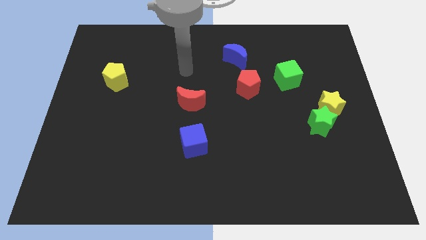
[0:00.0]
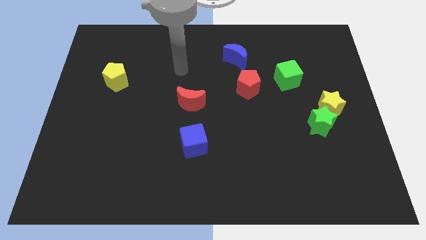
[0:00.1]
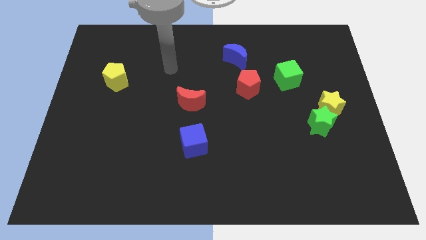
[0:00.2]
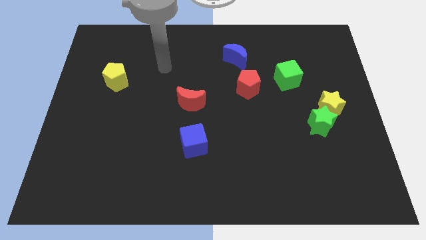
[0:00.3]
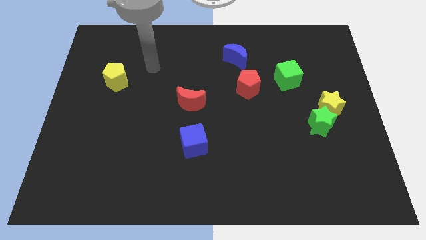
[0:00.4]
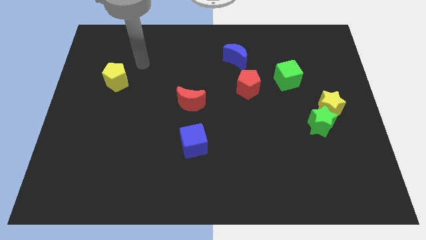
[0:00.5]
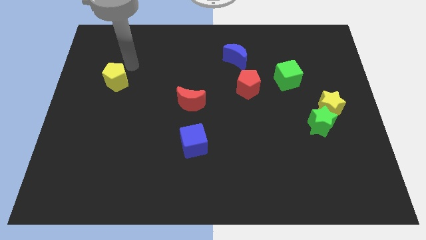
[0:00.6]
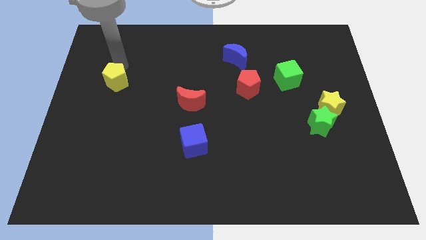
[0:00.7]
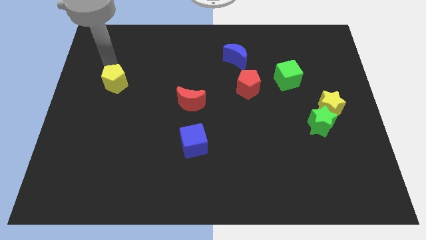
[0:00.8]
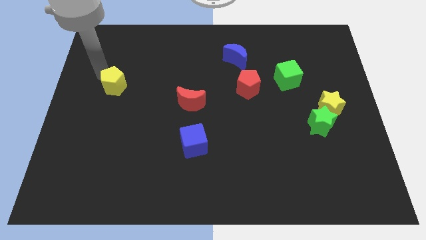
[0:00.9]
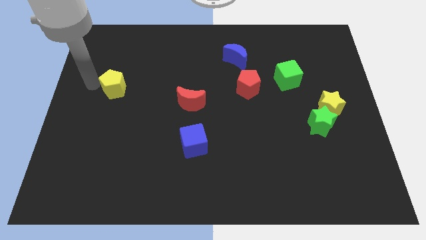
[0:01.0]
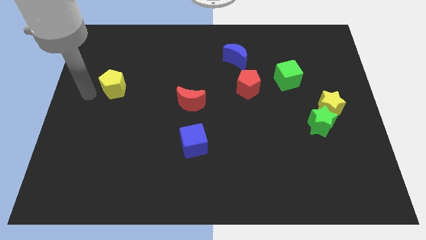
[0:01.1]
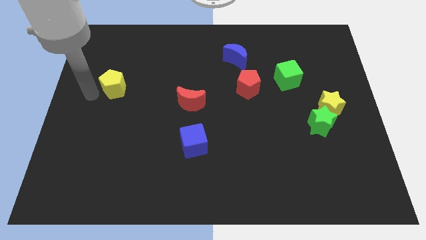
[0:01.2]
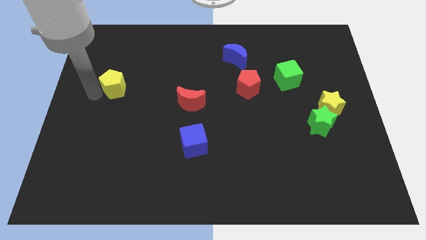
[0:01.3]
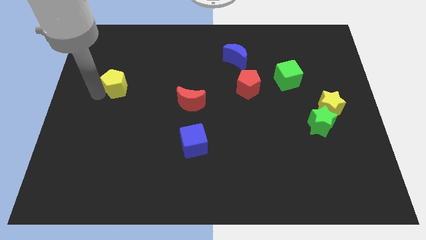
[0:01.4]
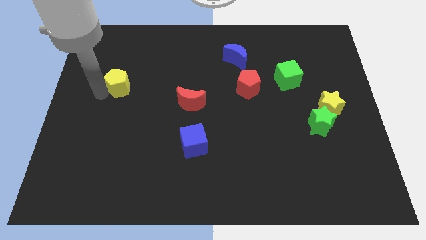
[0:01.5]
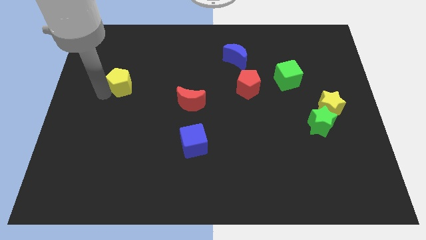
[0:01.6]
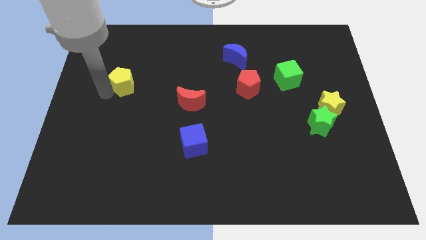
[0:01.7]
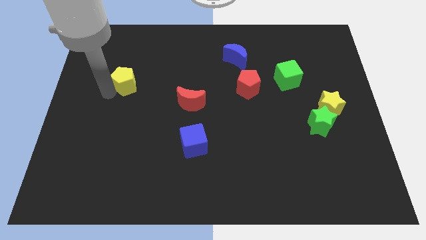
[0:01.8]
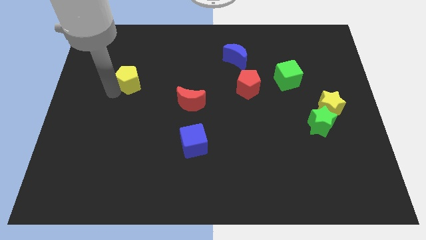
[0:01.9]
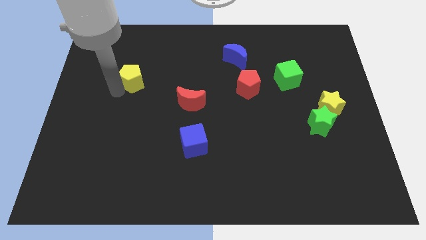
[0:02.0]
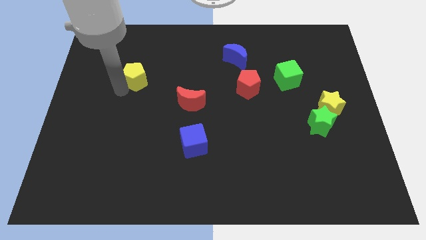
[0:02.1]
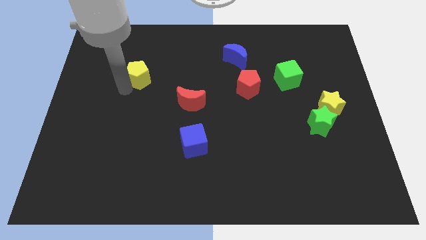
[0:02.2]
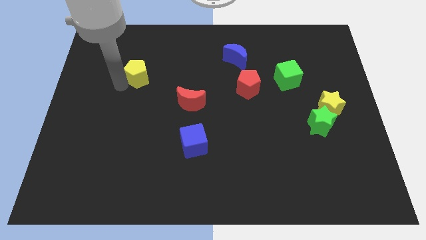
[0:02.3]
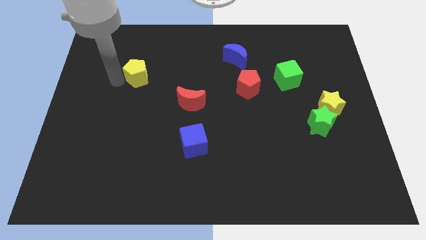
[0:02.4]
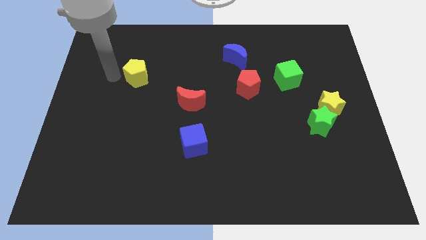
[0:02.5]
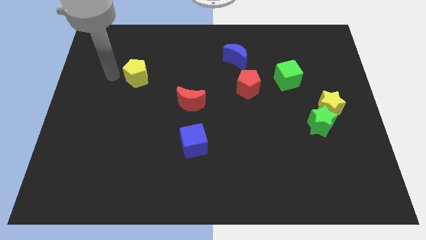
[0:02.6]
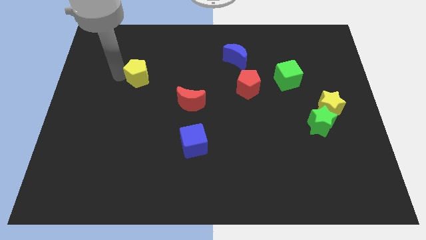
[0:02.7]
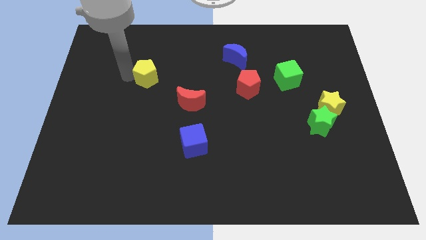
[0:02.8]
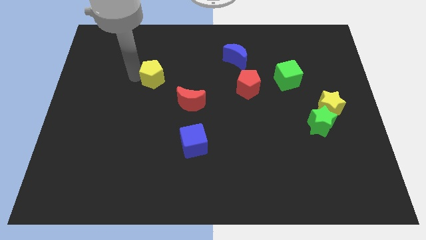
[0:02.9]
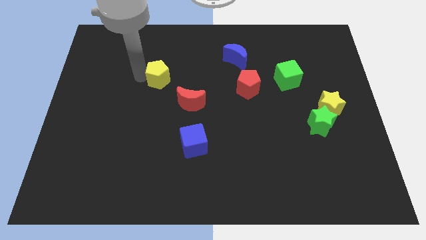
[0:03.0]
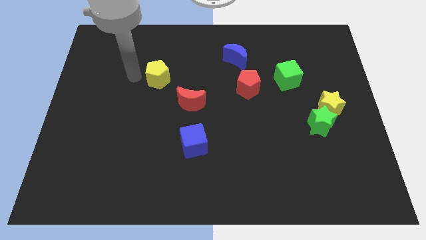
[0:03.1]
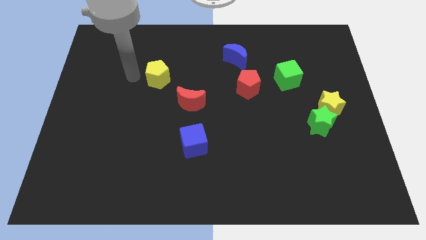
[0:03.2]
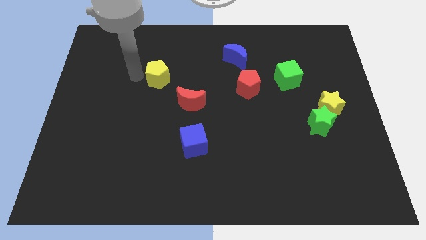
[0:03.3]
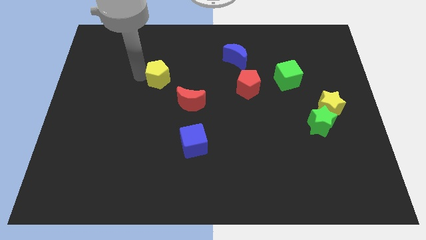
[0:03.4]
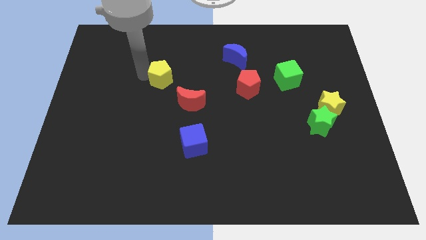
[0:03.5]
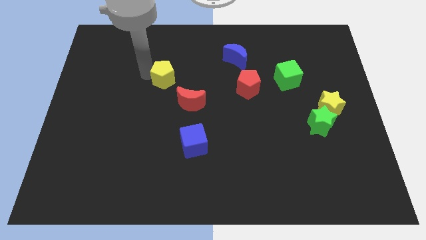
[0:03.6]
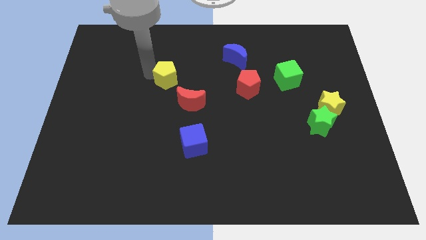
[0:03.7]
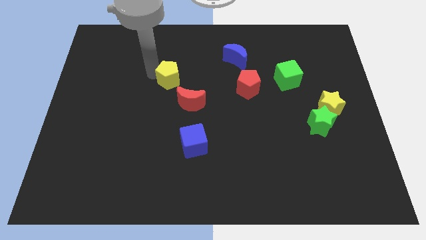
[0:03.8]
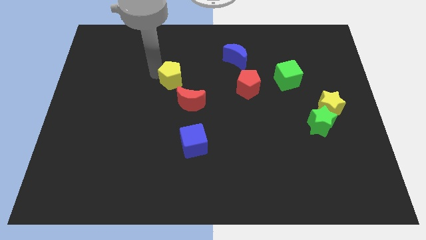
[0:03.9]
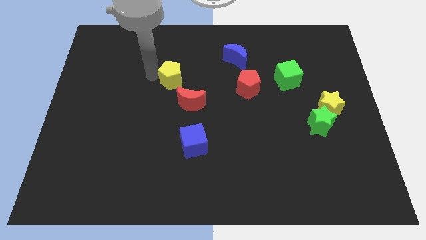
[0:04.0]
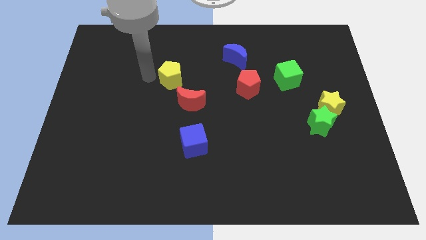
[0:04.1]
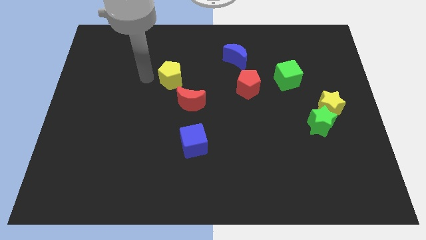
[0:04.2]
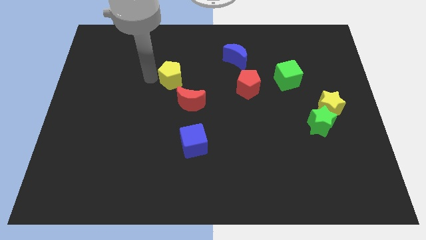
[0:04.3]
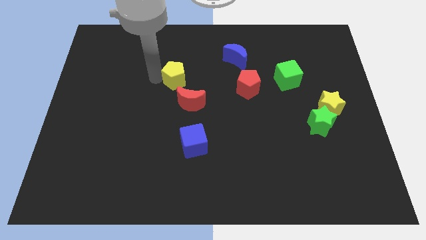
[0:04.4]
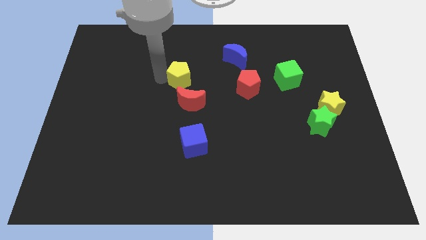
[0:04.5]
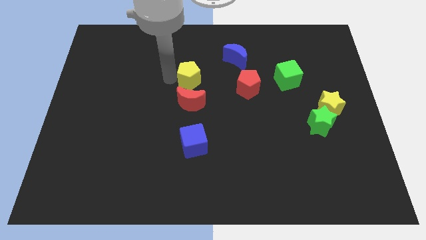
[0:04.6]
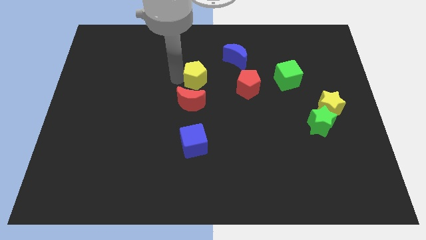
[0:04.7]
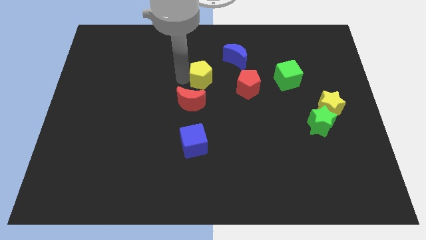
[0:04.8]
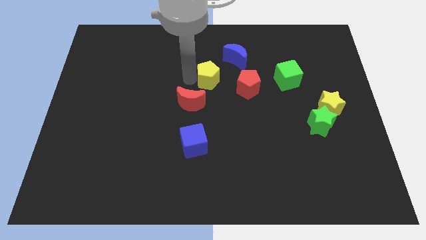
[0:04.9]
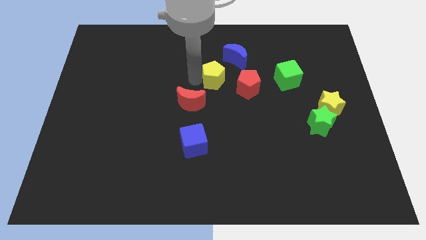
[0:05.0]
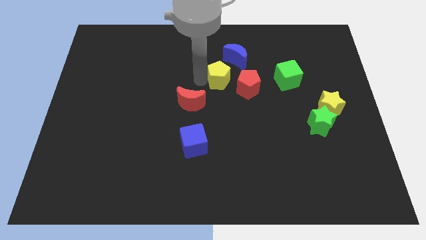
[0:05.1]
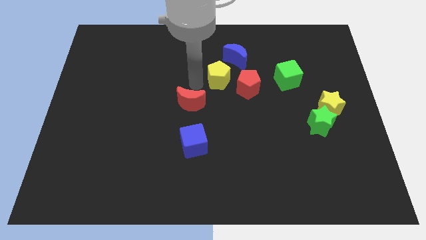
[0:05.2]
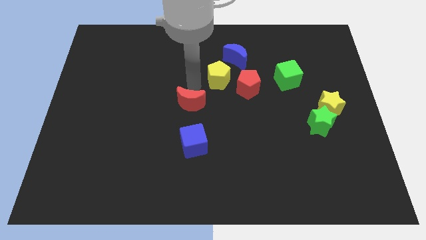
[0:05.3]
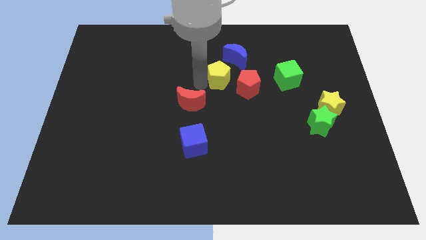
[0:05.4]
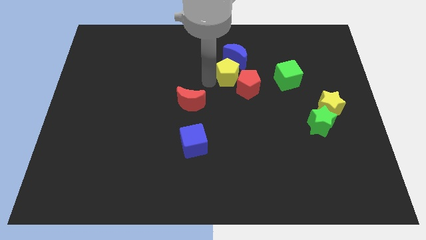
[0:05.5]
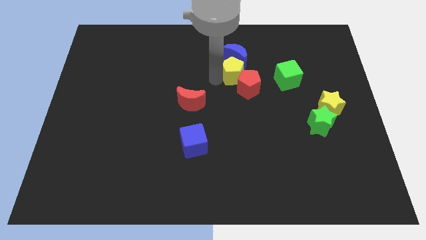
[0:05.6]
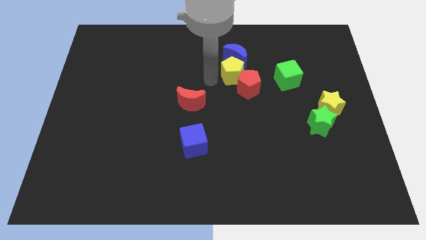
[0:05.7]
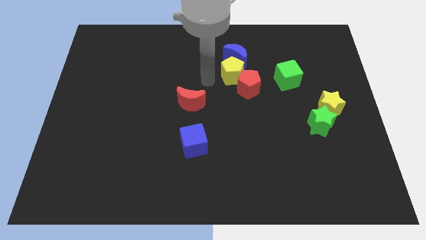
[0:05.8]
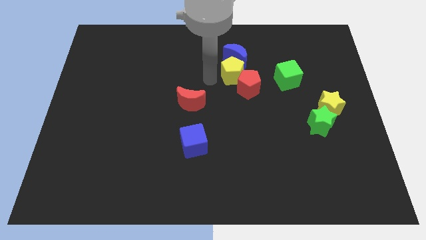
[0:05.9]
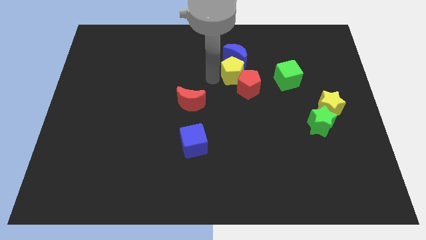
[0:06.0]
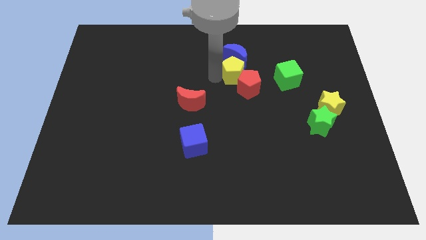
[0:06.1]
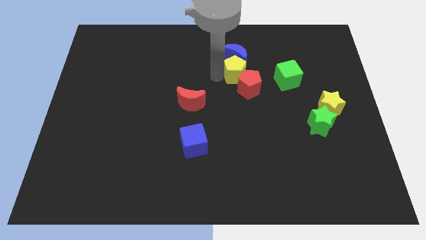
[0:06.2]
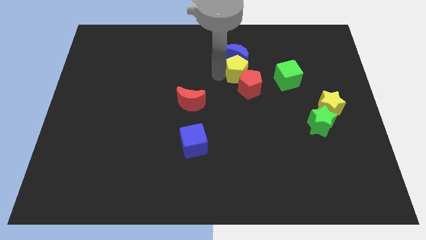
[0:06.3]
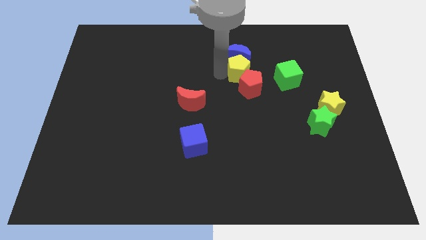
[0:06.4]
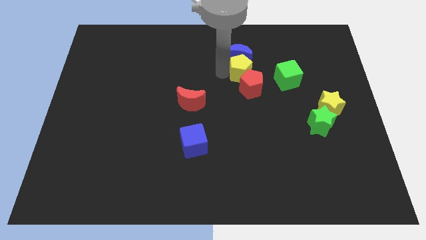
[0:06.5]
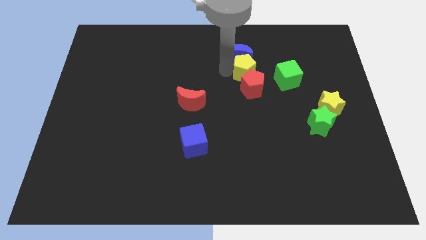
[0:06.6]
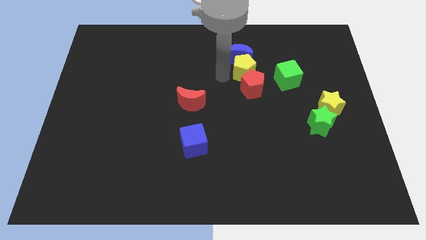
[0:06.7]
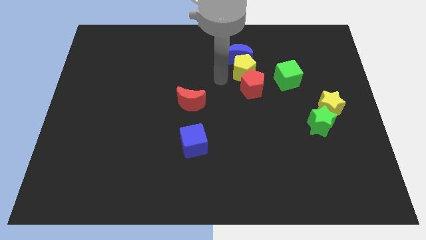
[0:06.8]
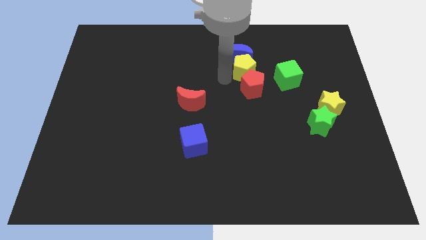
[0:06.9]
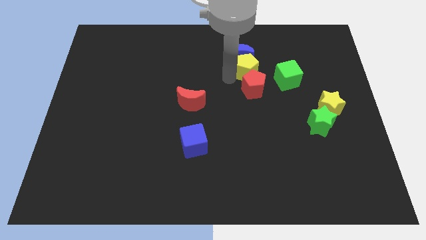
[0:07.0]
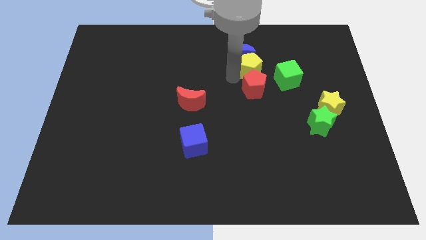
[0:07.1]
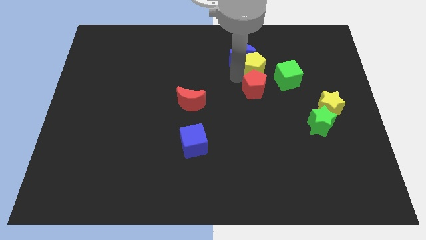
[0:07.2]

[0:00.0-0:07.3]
push the yellow pentagon to the right of the blue moon

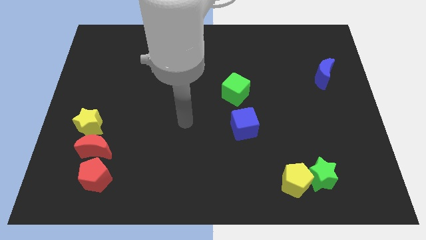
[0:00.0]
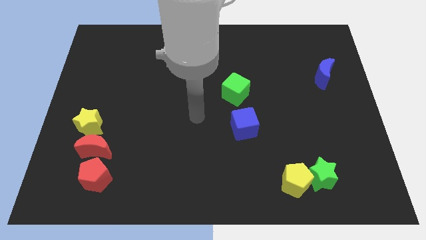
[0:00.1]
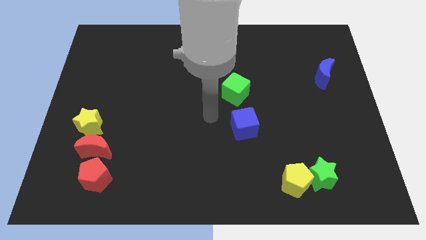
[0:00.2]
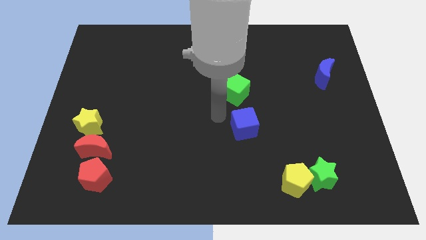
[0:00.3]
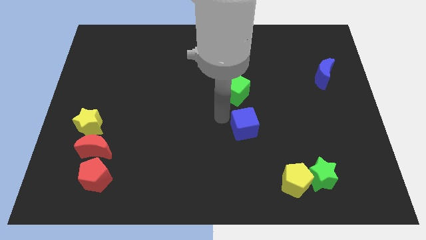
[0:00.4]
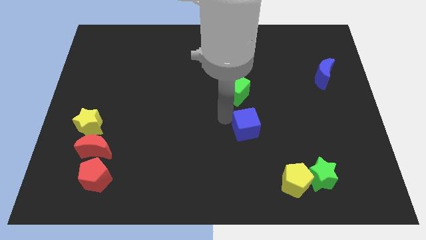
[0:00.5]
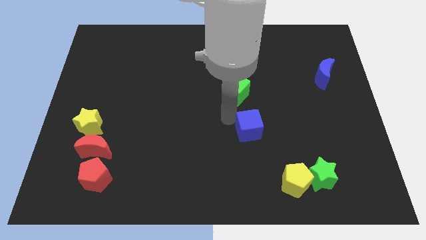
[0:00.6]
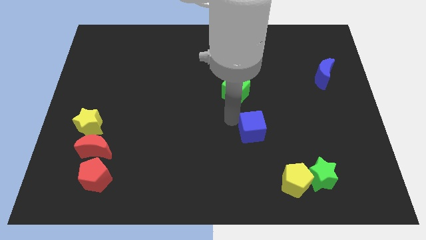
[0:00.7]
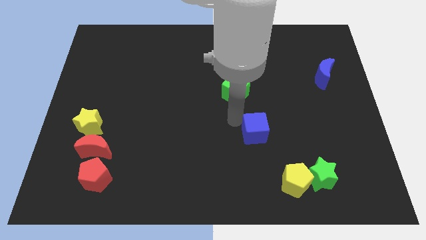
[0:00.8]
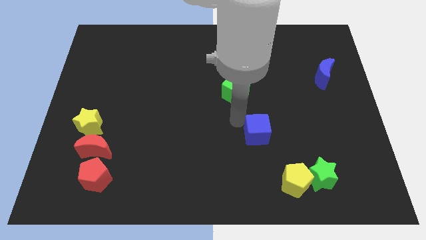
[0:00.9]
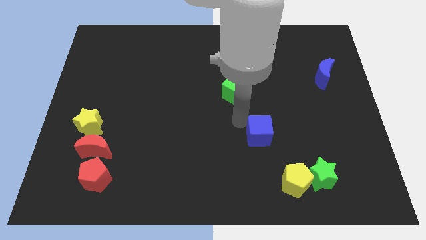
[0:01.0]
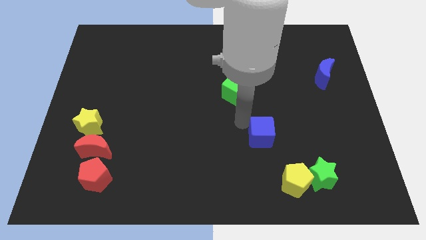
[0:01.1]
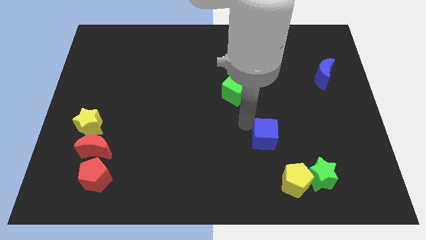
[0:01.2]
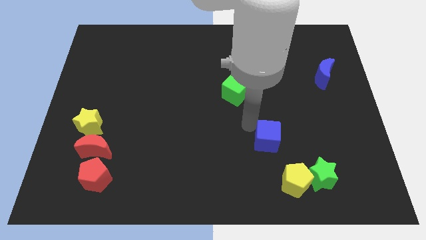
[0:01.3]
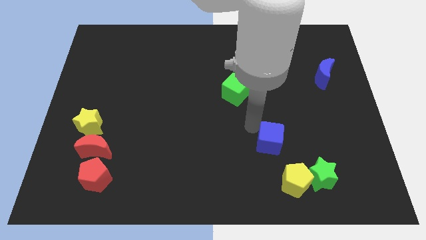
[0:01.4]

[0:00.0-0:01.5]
move the blue cube diagonally up and to the left of the green star
